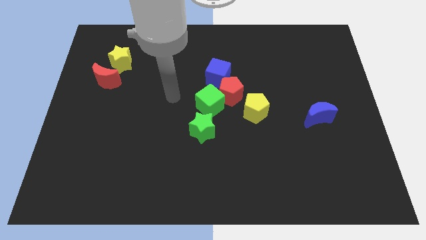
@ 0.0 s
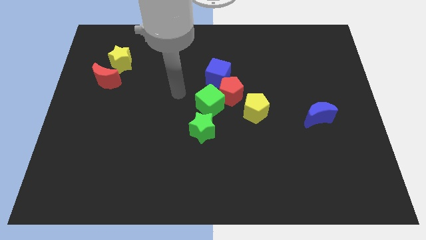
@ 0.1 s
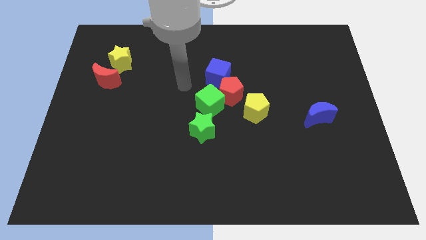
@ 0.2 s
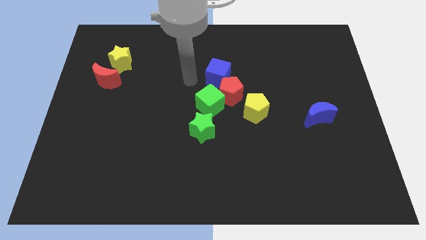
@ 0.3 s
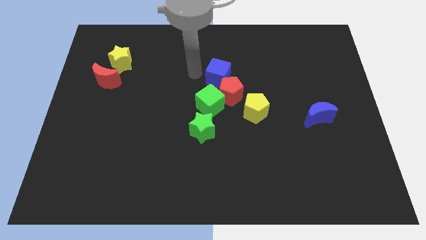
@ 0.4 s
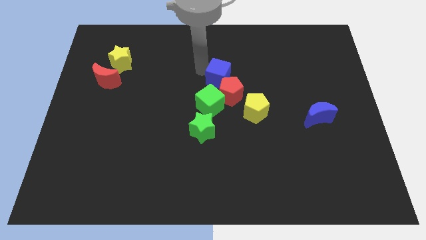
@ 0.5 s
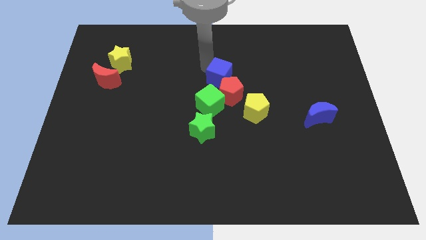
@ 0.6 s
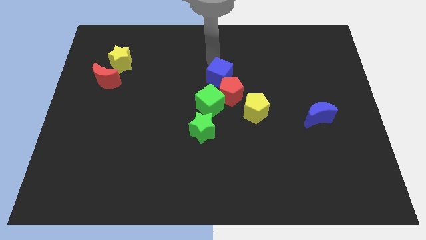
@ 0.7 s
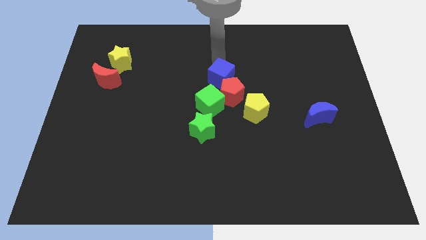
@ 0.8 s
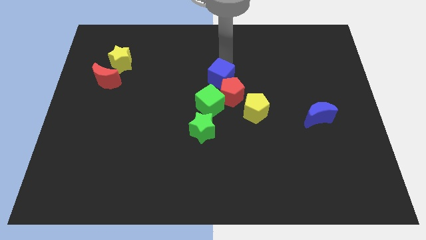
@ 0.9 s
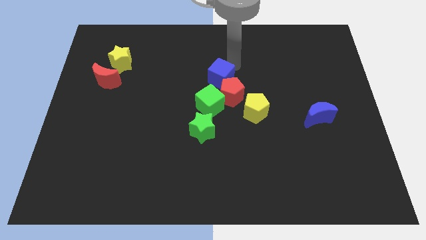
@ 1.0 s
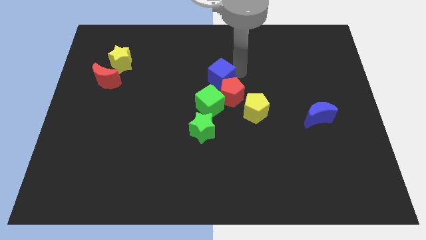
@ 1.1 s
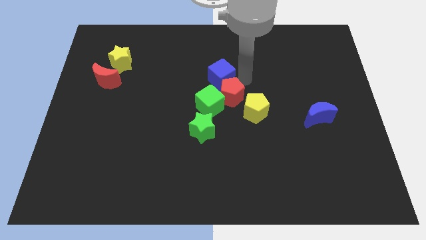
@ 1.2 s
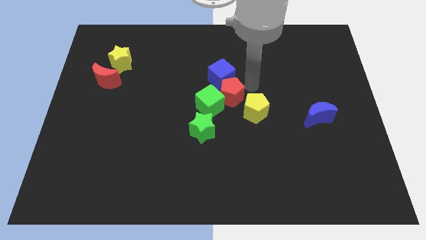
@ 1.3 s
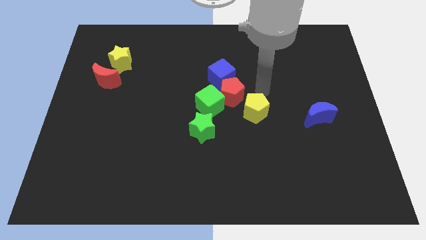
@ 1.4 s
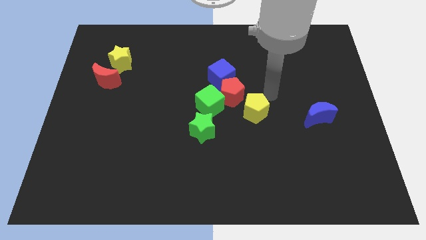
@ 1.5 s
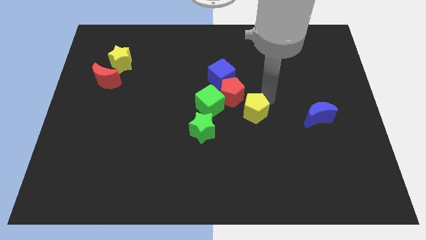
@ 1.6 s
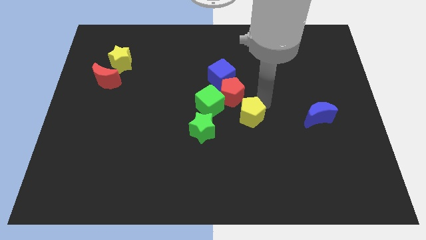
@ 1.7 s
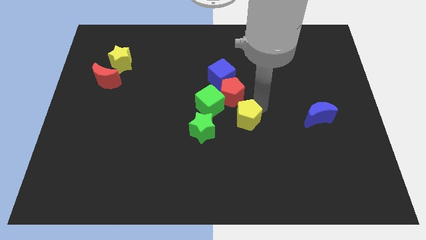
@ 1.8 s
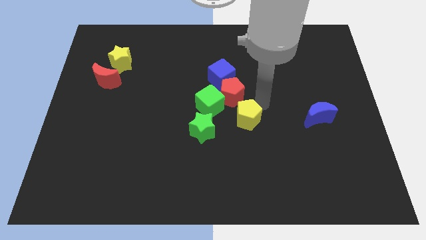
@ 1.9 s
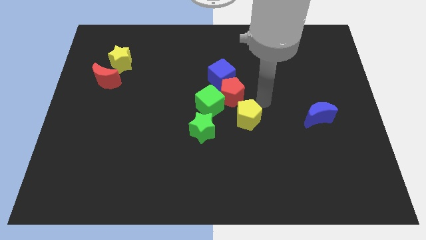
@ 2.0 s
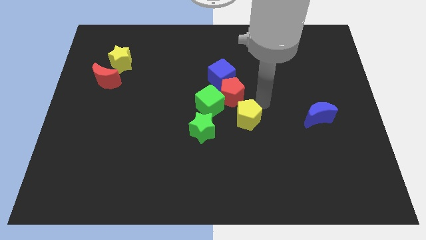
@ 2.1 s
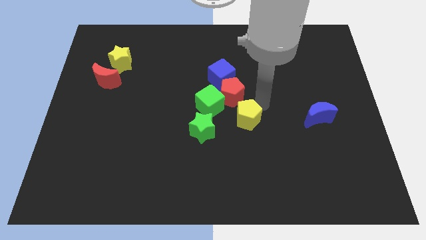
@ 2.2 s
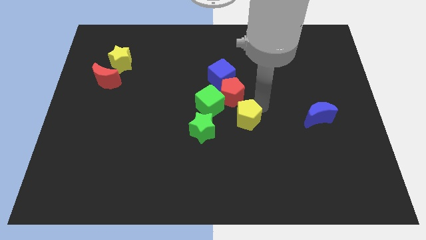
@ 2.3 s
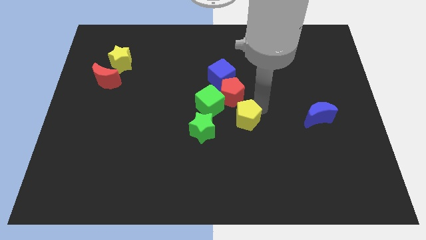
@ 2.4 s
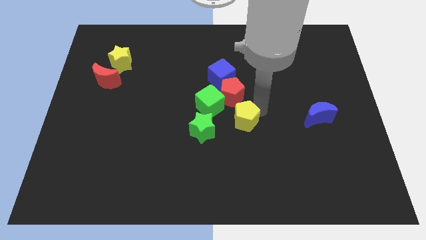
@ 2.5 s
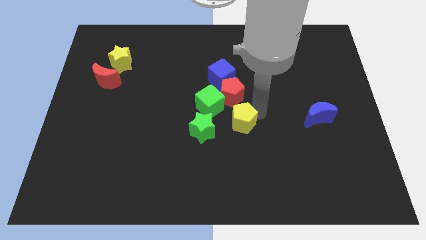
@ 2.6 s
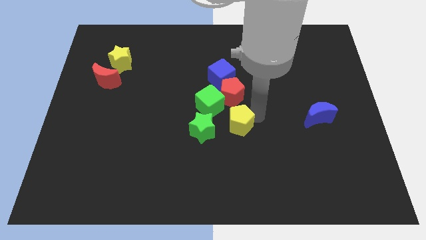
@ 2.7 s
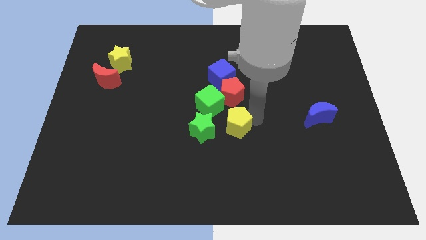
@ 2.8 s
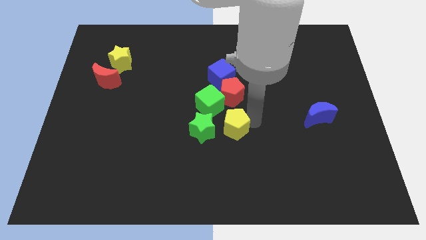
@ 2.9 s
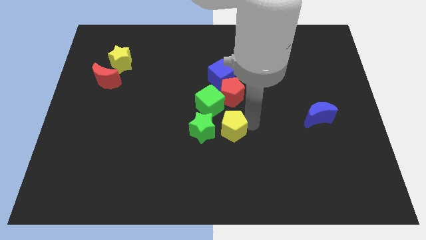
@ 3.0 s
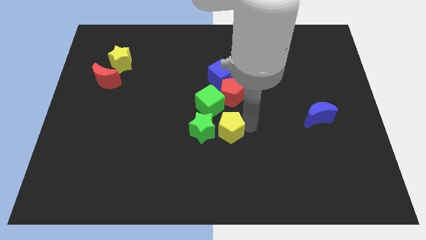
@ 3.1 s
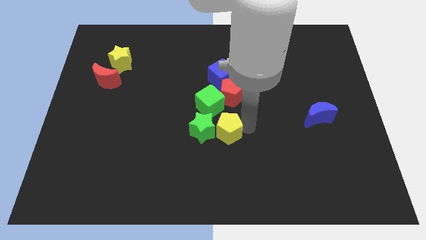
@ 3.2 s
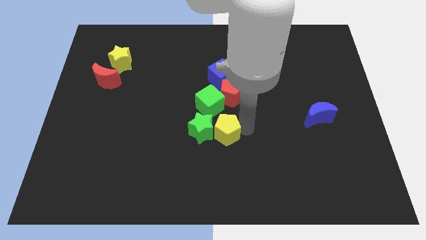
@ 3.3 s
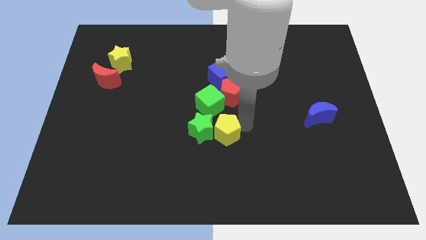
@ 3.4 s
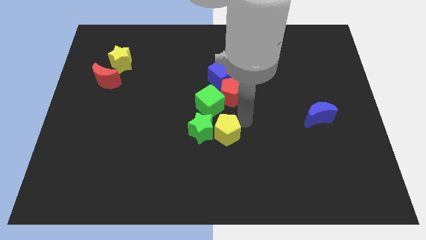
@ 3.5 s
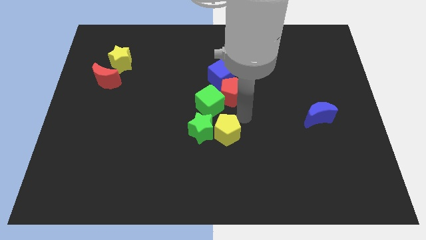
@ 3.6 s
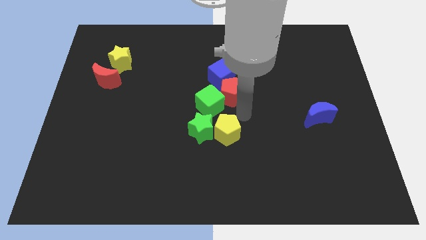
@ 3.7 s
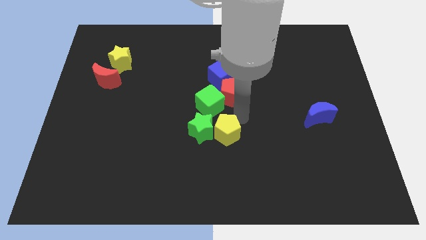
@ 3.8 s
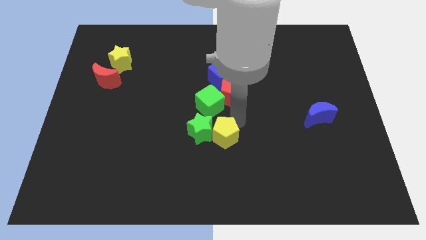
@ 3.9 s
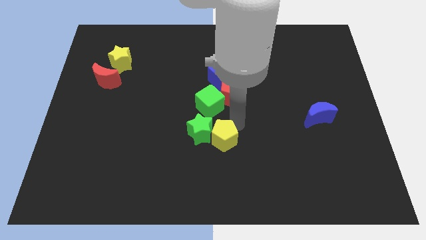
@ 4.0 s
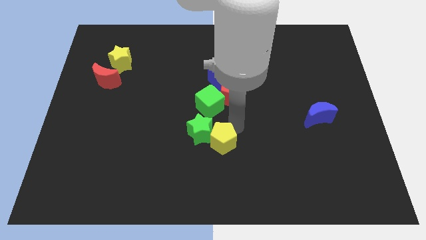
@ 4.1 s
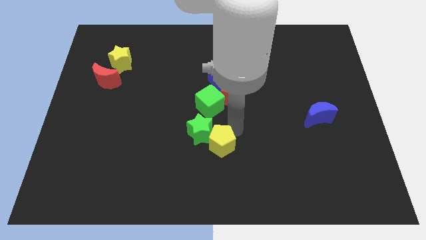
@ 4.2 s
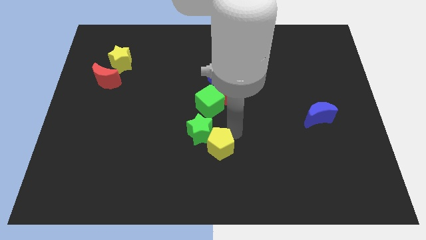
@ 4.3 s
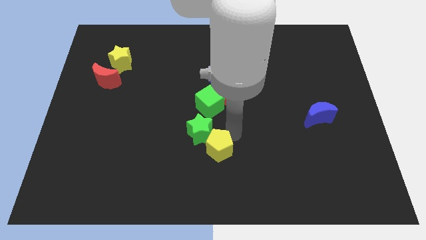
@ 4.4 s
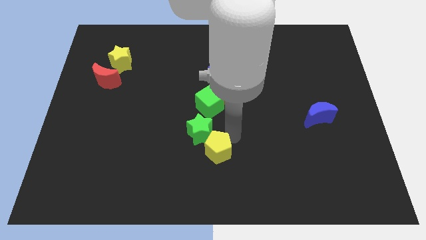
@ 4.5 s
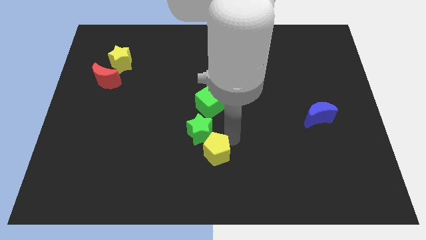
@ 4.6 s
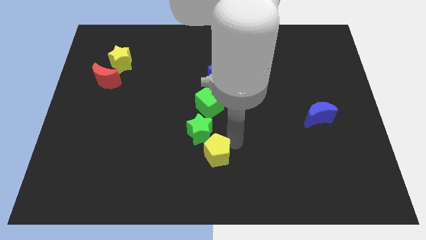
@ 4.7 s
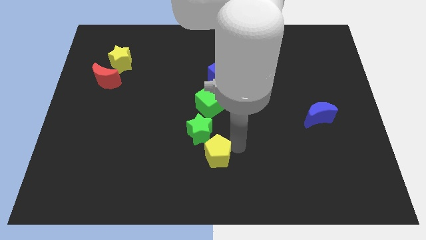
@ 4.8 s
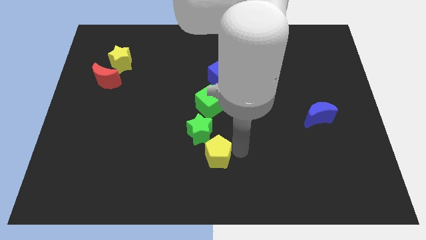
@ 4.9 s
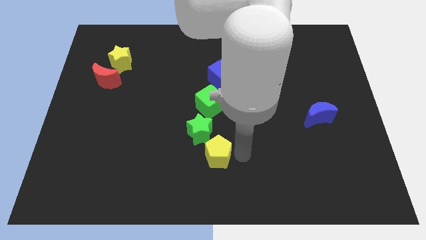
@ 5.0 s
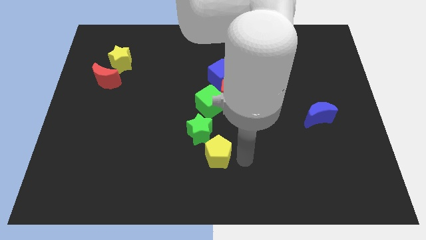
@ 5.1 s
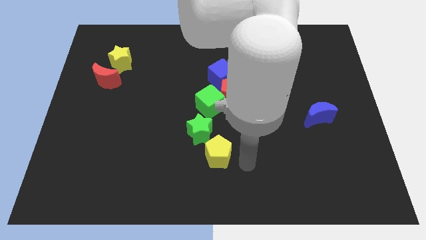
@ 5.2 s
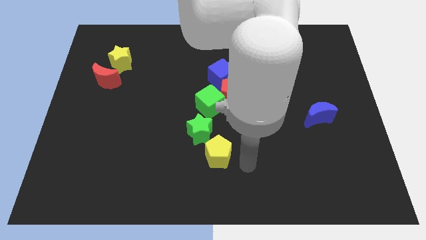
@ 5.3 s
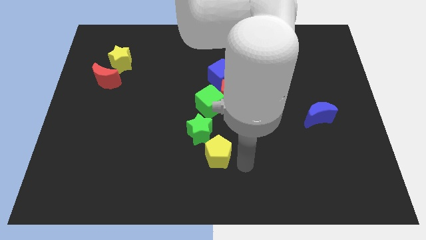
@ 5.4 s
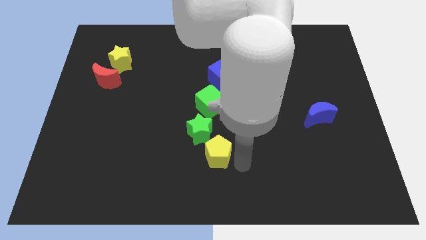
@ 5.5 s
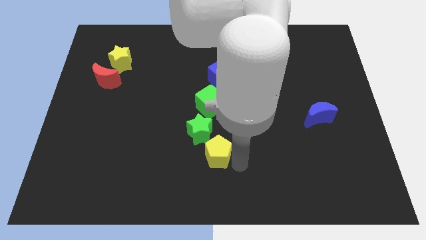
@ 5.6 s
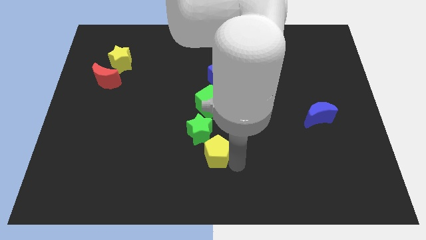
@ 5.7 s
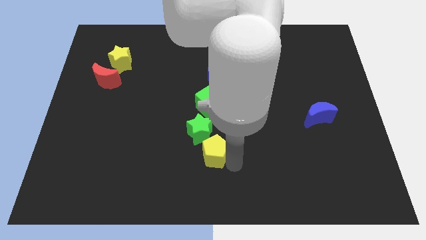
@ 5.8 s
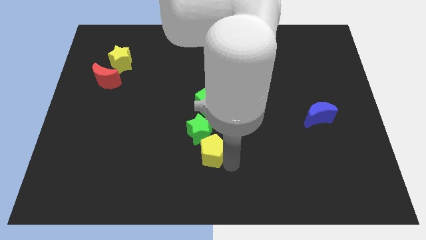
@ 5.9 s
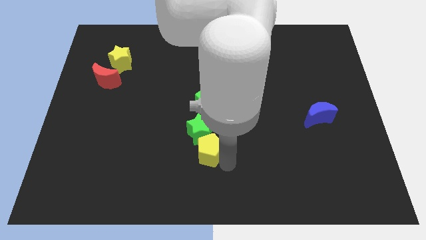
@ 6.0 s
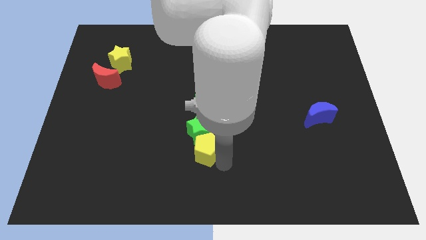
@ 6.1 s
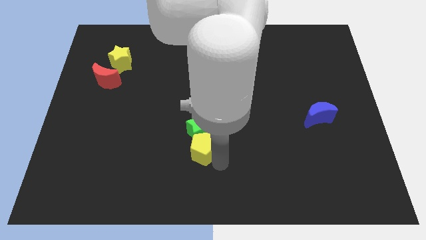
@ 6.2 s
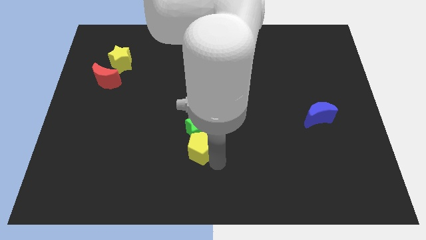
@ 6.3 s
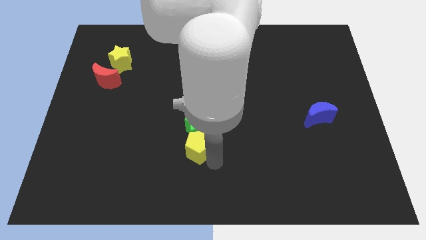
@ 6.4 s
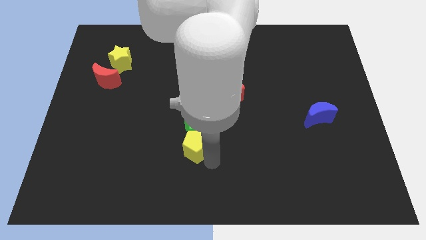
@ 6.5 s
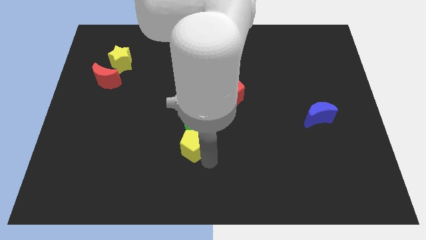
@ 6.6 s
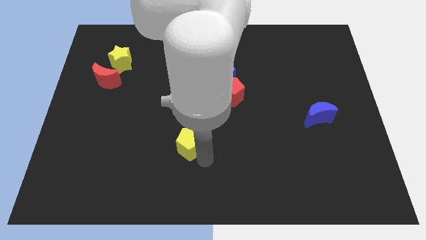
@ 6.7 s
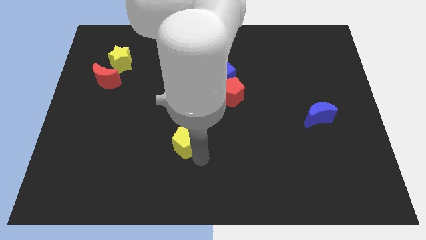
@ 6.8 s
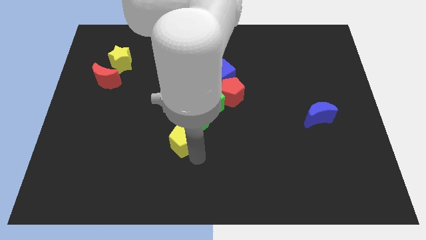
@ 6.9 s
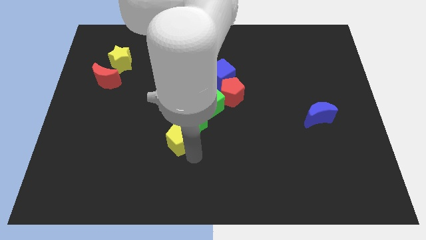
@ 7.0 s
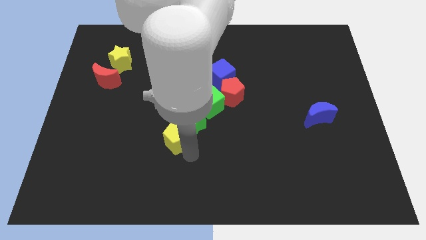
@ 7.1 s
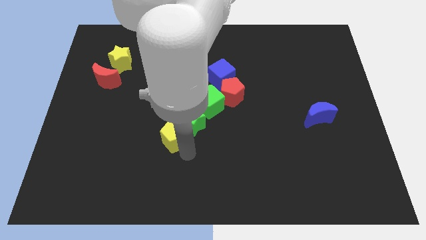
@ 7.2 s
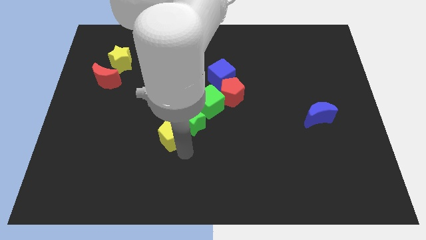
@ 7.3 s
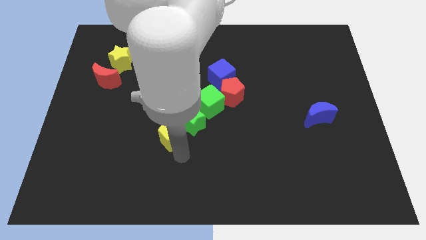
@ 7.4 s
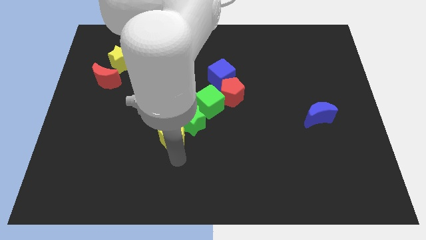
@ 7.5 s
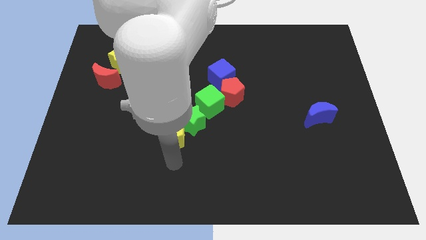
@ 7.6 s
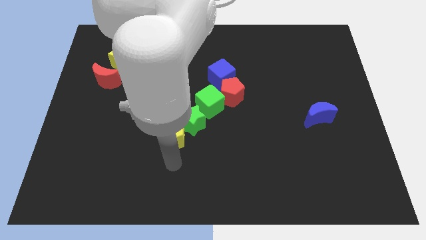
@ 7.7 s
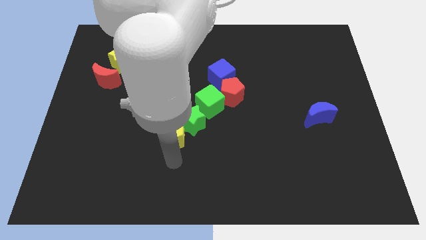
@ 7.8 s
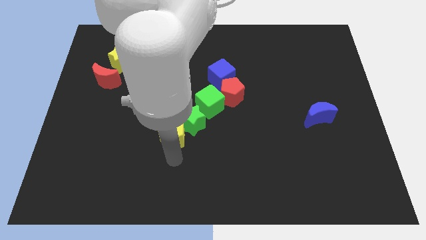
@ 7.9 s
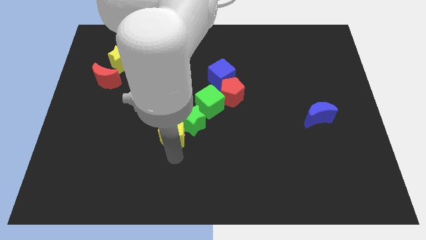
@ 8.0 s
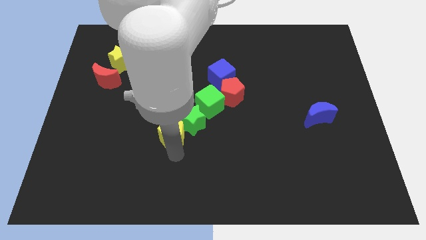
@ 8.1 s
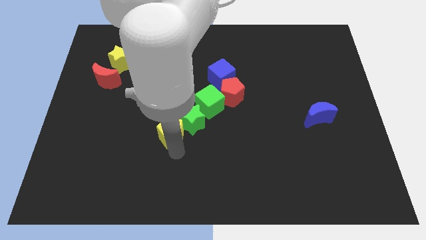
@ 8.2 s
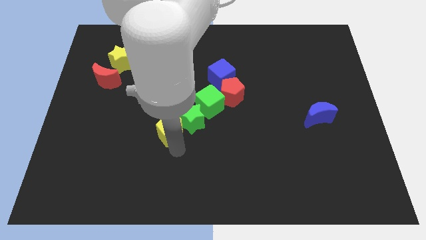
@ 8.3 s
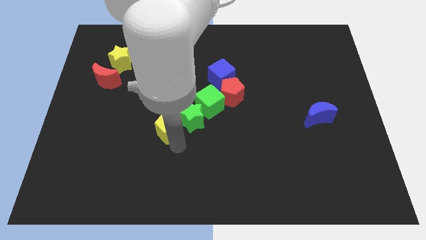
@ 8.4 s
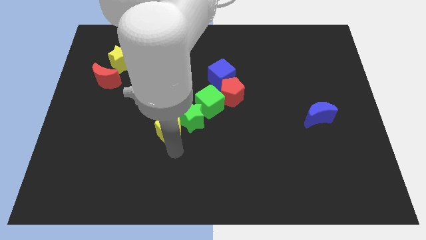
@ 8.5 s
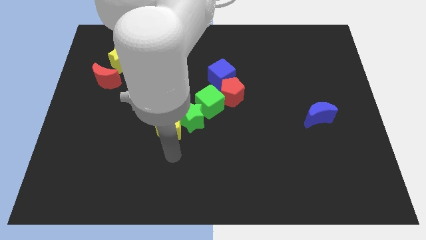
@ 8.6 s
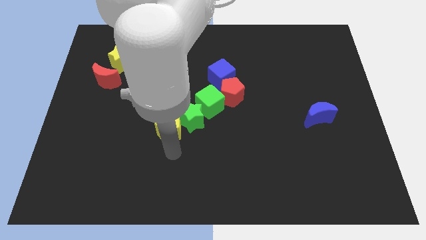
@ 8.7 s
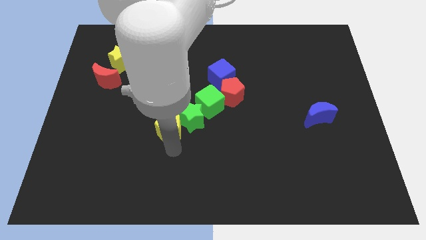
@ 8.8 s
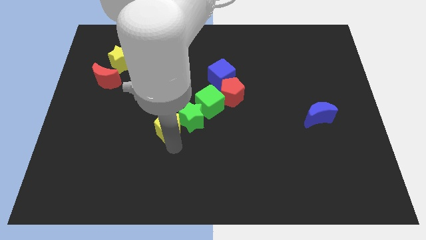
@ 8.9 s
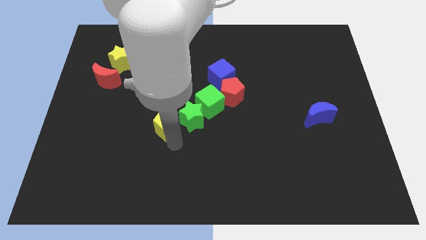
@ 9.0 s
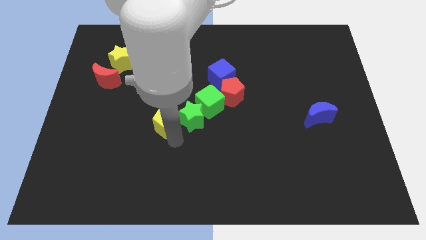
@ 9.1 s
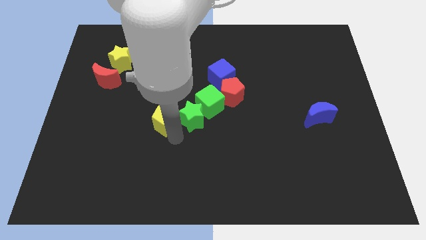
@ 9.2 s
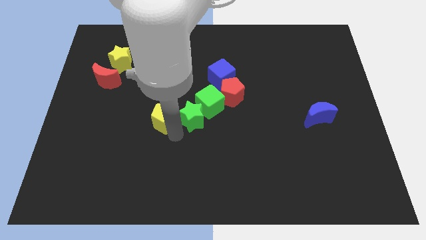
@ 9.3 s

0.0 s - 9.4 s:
slide the yellow pentagon left of the green cube
